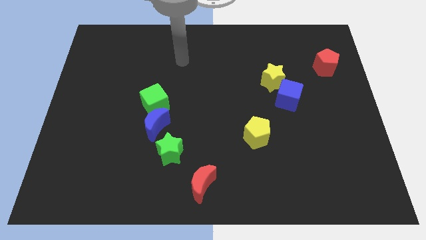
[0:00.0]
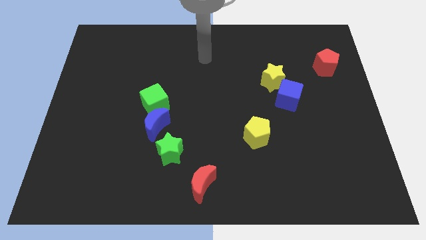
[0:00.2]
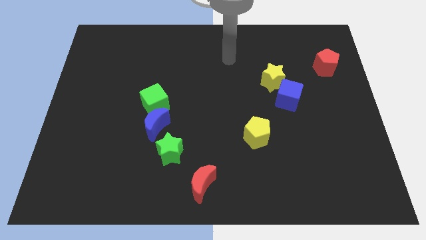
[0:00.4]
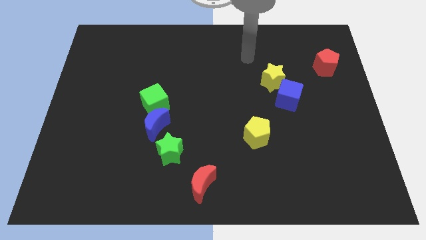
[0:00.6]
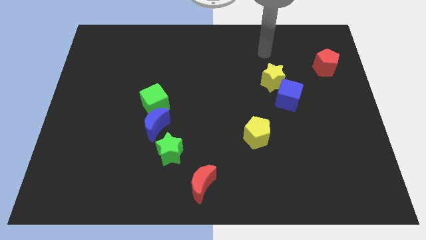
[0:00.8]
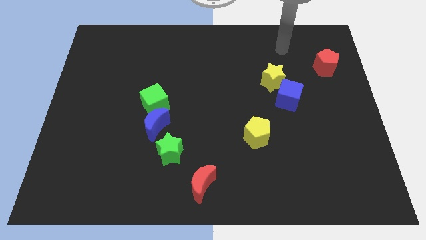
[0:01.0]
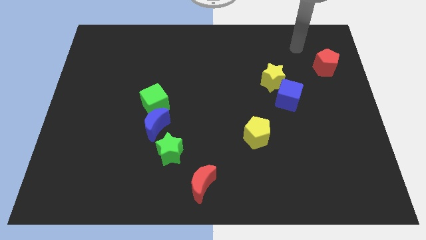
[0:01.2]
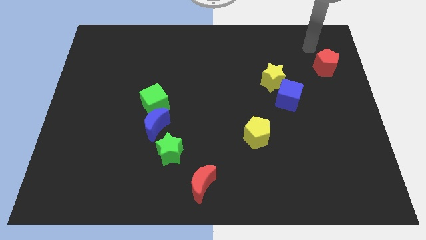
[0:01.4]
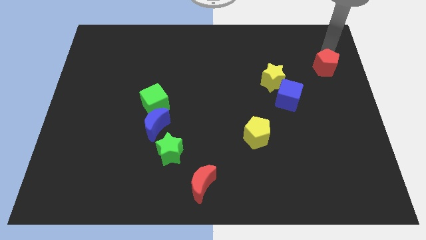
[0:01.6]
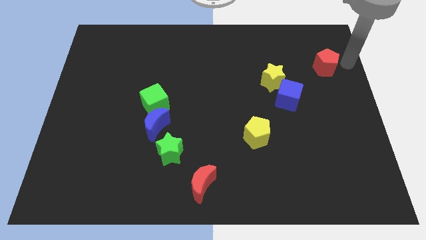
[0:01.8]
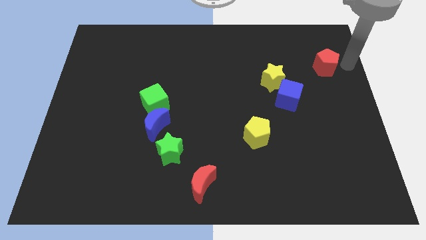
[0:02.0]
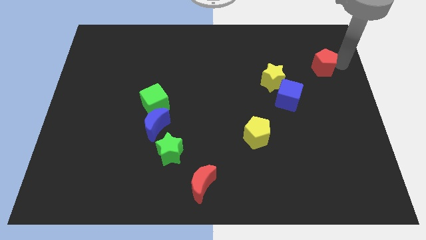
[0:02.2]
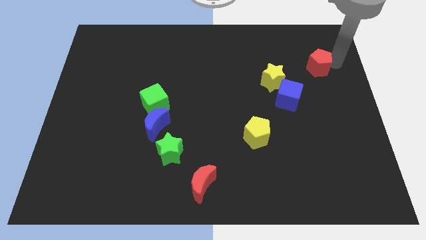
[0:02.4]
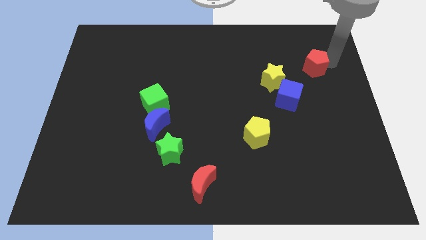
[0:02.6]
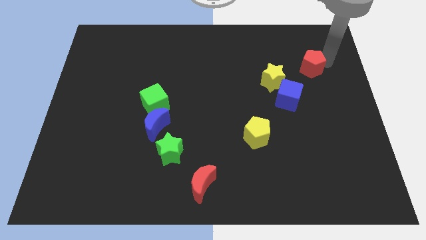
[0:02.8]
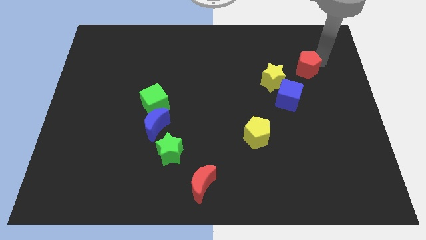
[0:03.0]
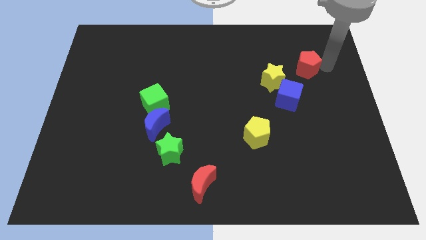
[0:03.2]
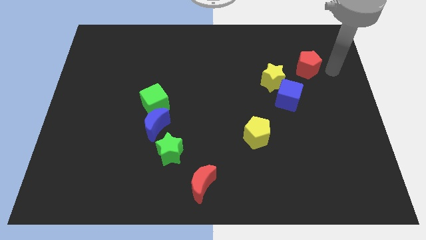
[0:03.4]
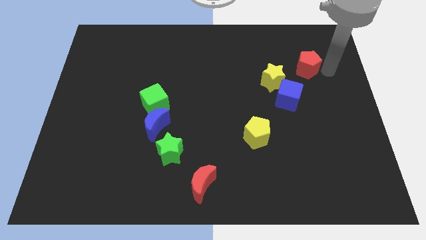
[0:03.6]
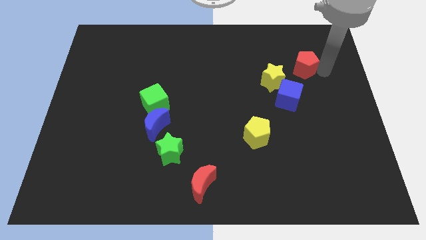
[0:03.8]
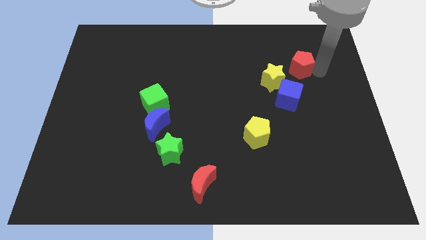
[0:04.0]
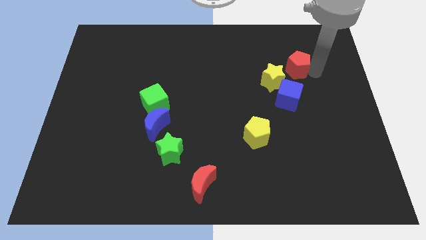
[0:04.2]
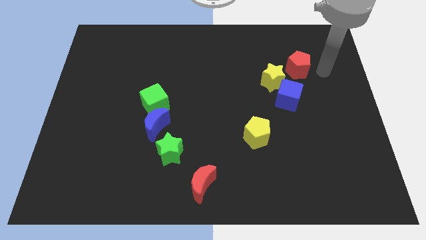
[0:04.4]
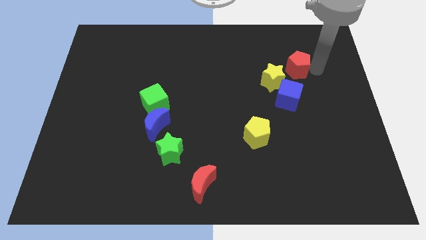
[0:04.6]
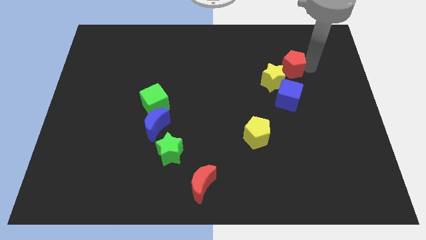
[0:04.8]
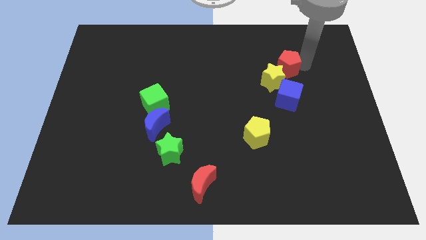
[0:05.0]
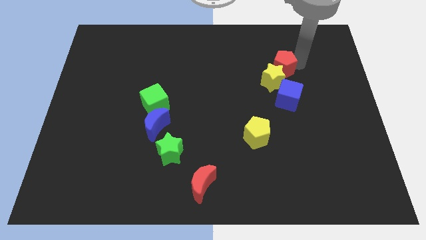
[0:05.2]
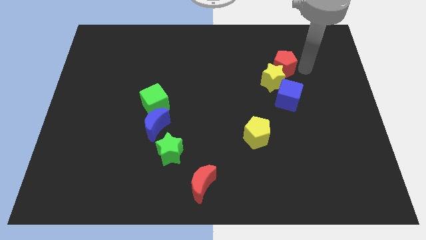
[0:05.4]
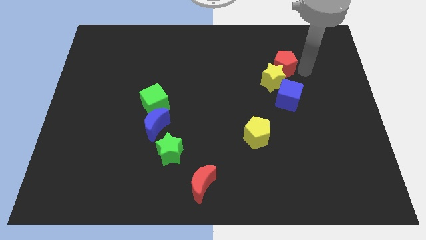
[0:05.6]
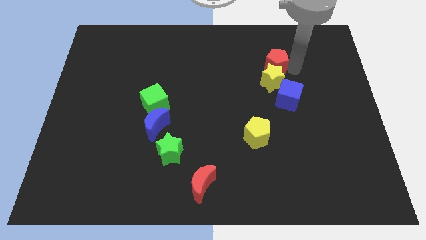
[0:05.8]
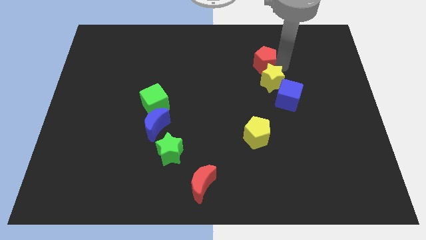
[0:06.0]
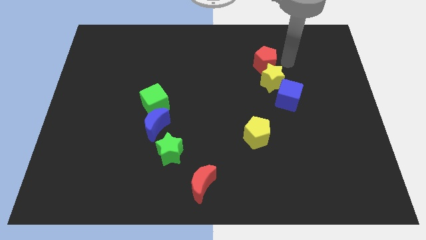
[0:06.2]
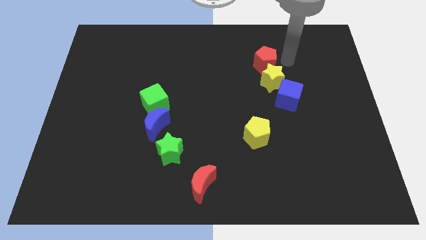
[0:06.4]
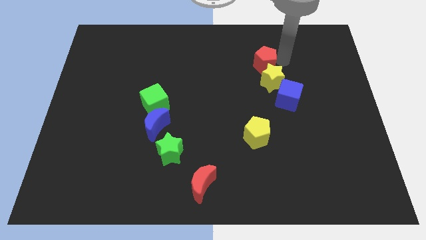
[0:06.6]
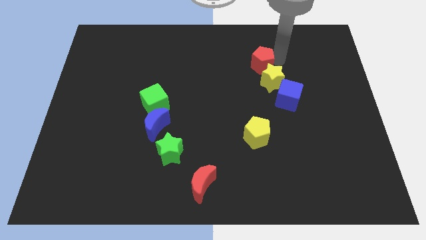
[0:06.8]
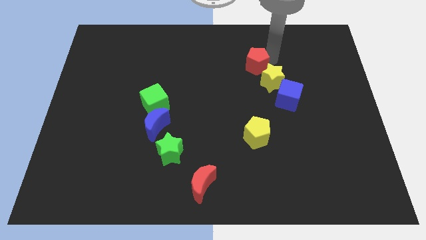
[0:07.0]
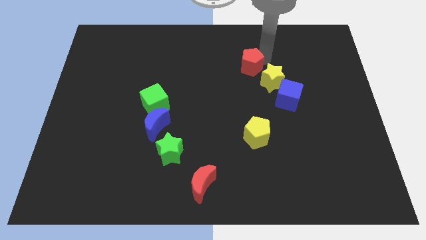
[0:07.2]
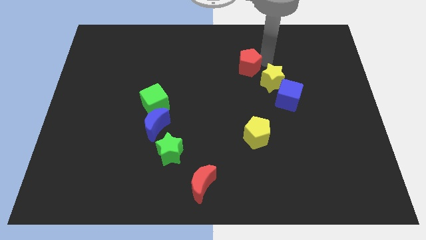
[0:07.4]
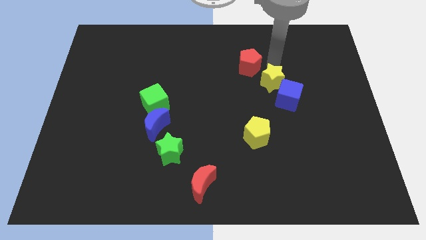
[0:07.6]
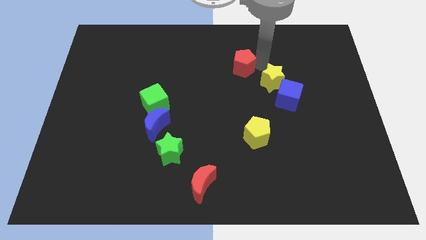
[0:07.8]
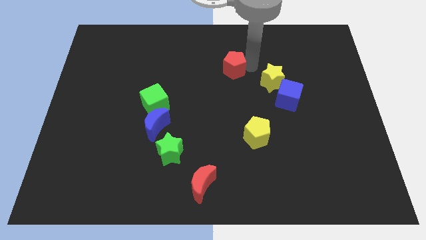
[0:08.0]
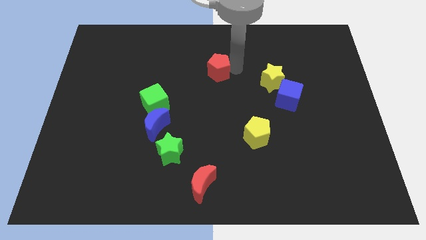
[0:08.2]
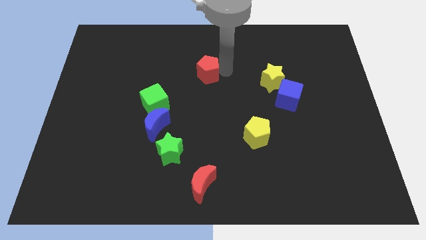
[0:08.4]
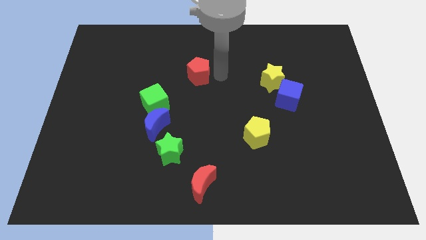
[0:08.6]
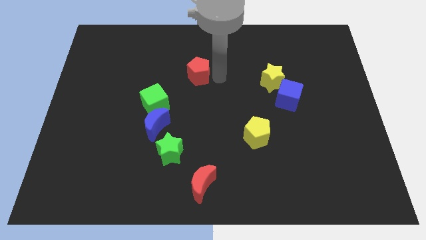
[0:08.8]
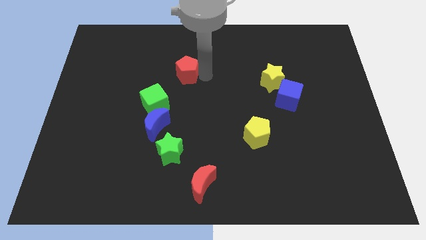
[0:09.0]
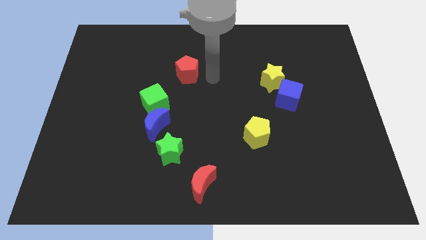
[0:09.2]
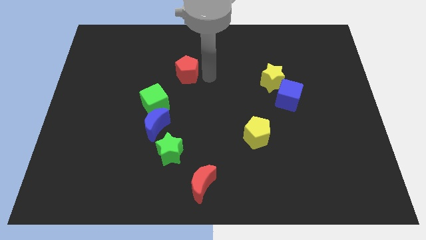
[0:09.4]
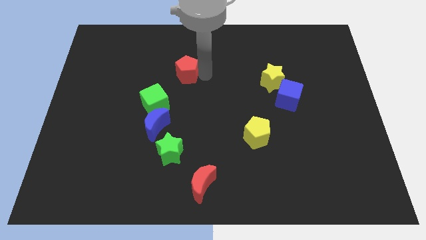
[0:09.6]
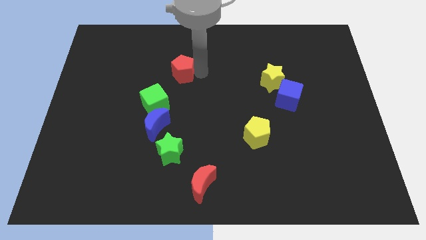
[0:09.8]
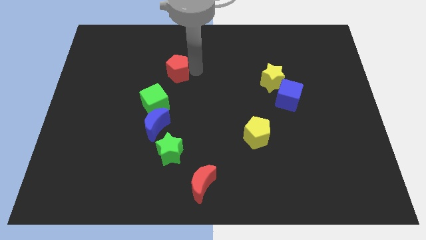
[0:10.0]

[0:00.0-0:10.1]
slide the red pentagon to the top side of the green cube

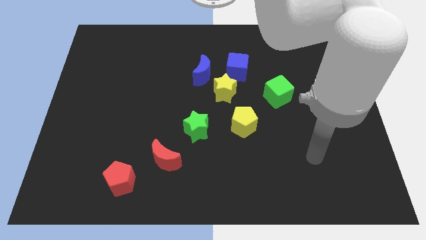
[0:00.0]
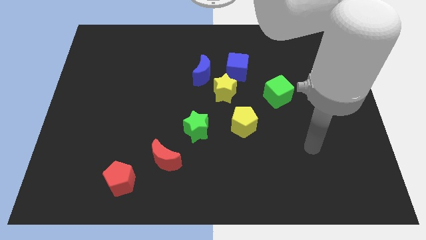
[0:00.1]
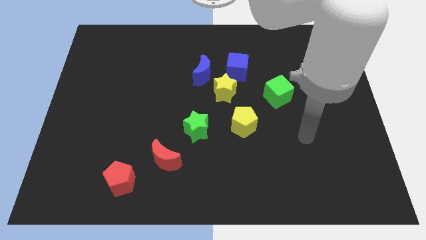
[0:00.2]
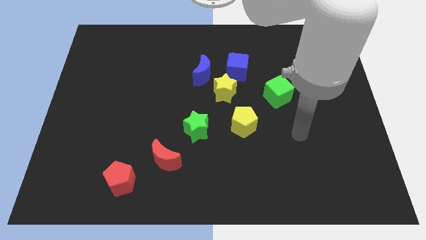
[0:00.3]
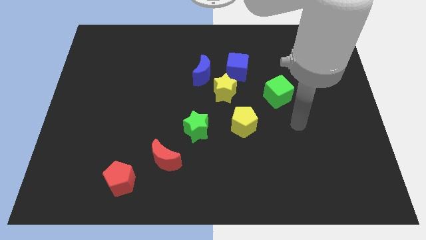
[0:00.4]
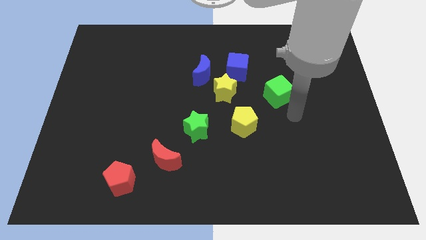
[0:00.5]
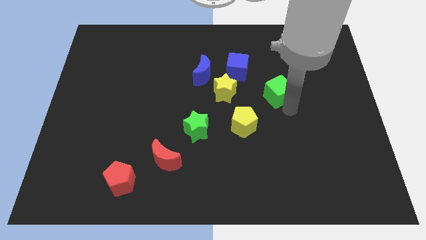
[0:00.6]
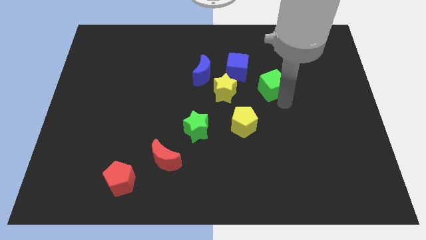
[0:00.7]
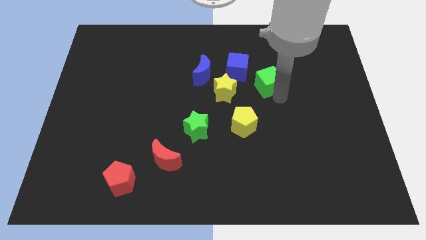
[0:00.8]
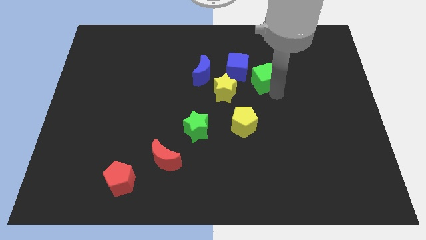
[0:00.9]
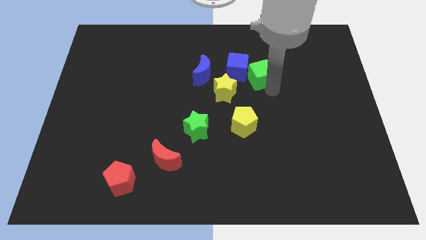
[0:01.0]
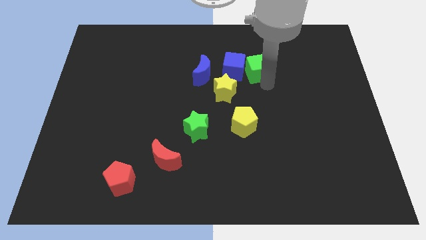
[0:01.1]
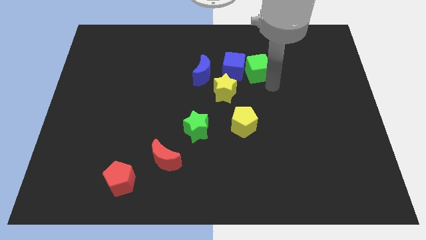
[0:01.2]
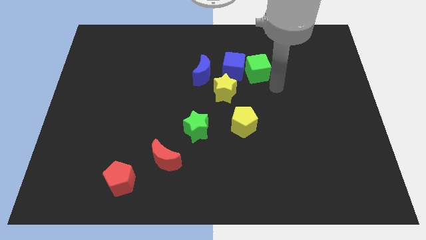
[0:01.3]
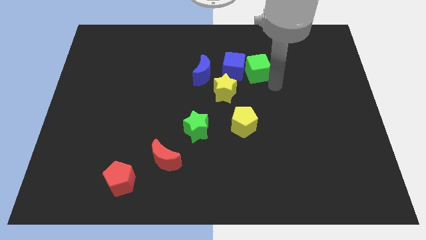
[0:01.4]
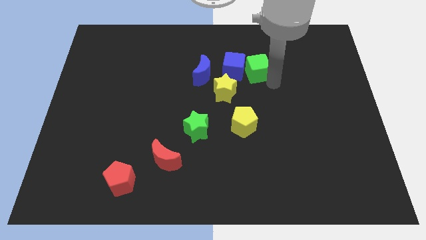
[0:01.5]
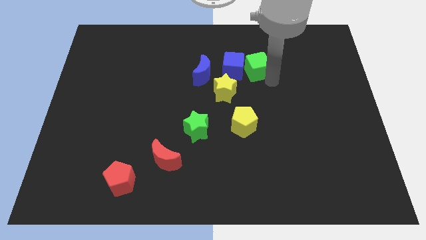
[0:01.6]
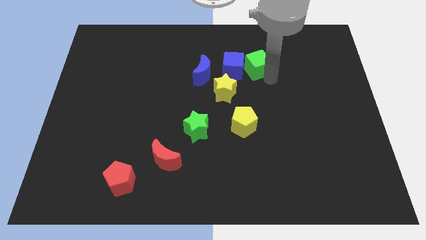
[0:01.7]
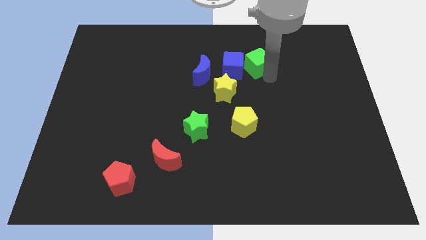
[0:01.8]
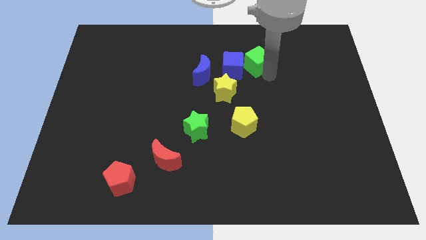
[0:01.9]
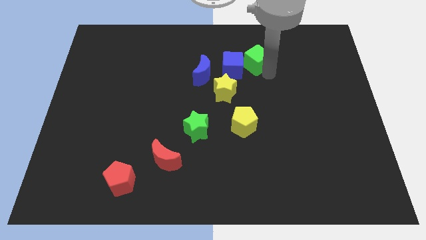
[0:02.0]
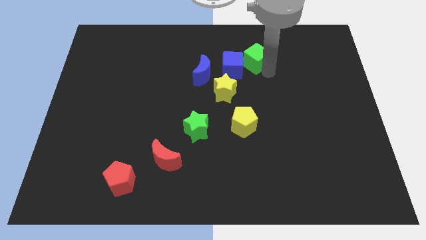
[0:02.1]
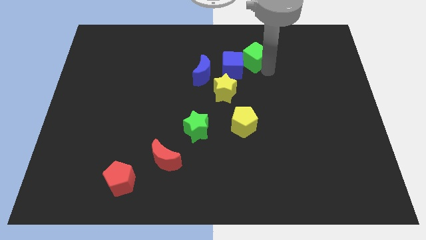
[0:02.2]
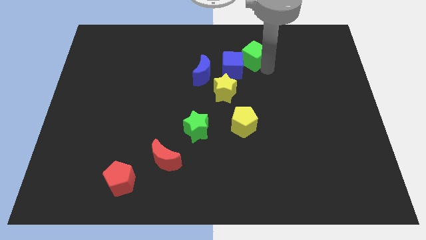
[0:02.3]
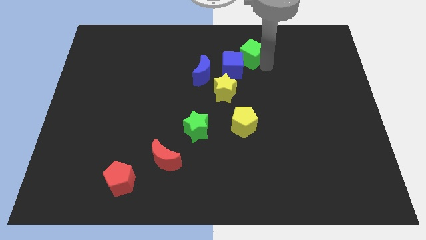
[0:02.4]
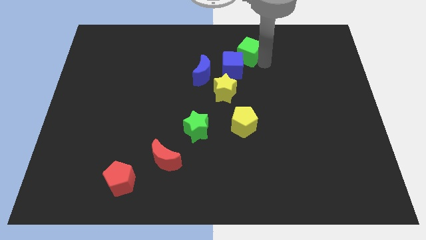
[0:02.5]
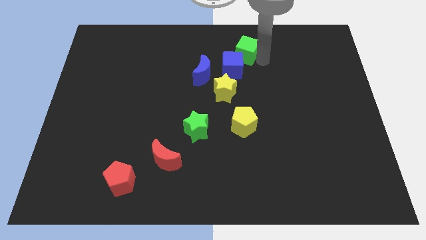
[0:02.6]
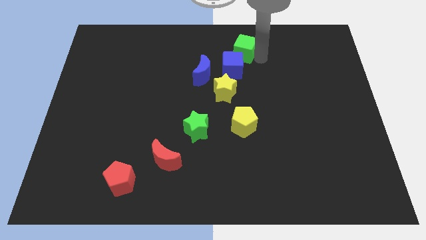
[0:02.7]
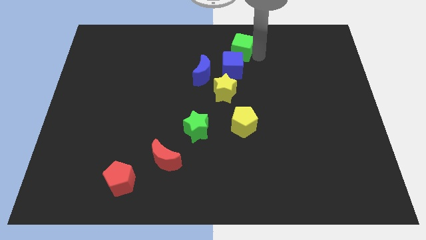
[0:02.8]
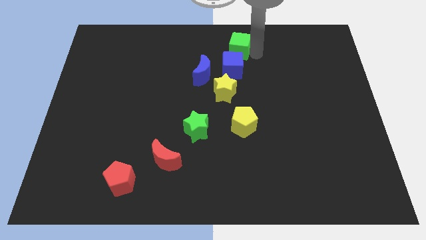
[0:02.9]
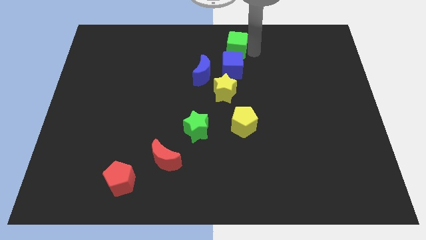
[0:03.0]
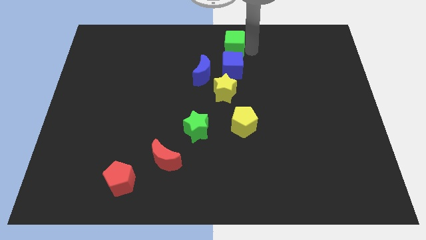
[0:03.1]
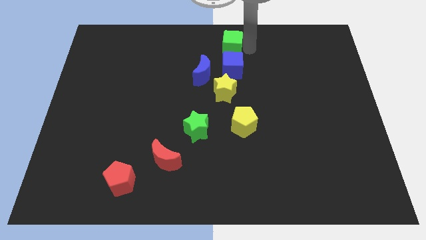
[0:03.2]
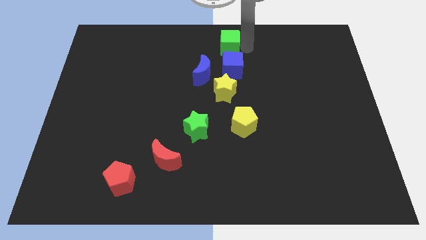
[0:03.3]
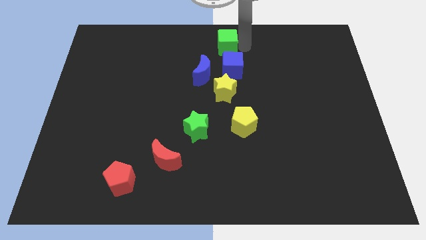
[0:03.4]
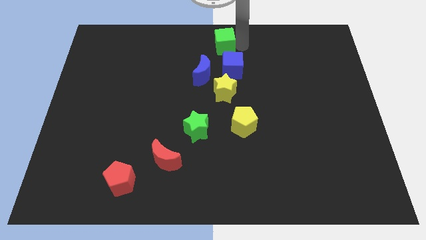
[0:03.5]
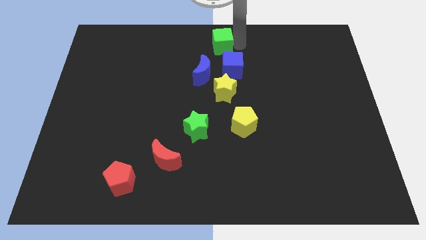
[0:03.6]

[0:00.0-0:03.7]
move the green cube diagonally up and to the left of the blue cube
